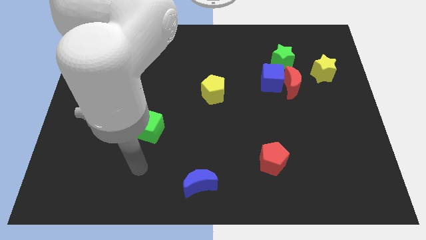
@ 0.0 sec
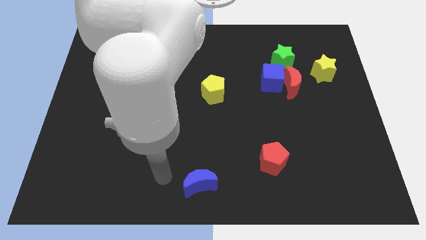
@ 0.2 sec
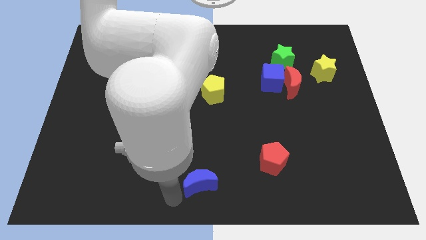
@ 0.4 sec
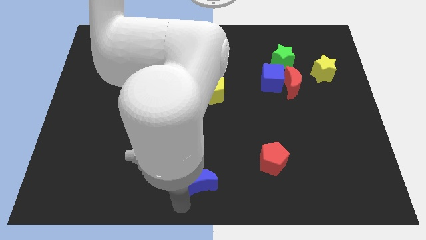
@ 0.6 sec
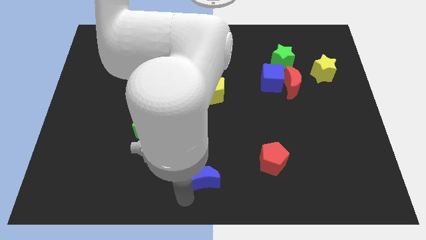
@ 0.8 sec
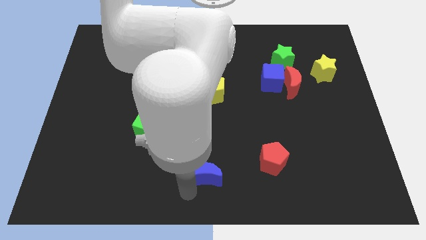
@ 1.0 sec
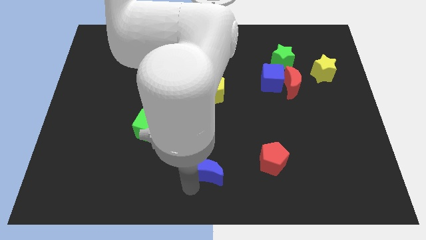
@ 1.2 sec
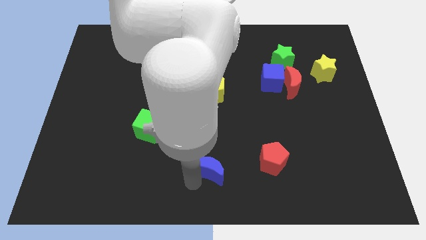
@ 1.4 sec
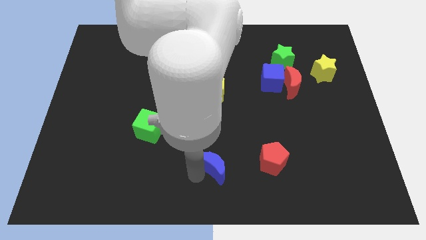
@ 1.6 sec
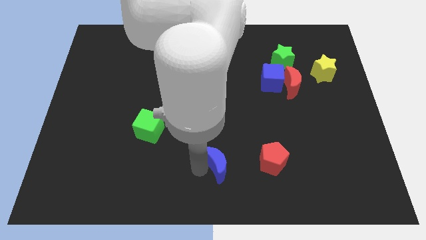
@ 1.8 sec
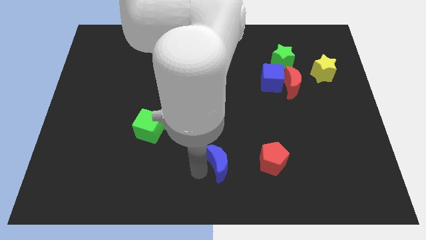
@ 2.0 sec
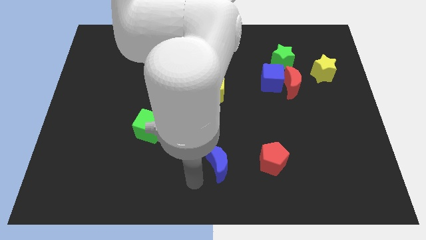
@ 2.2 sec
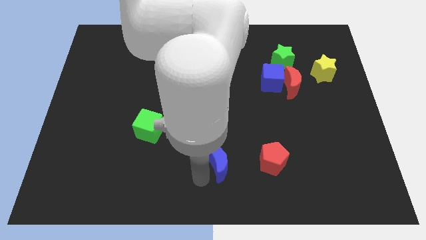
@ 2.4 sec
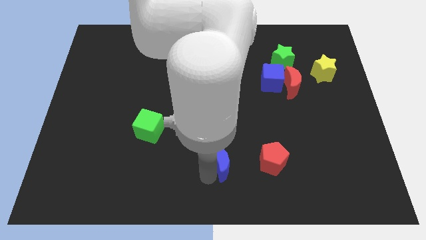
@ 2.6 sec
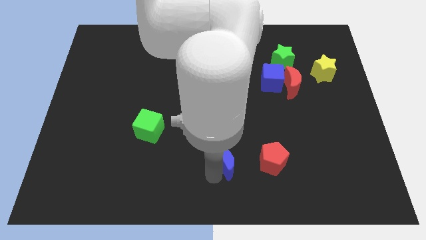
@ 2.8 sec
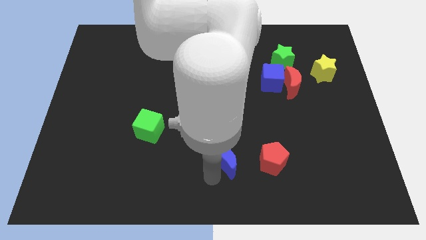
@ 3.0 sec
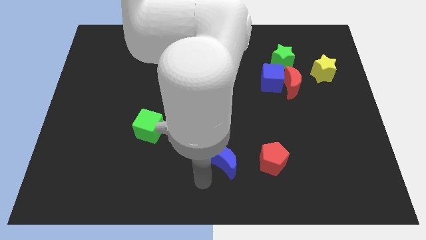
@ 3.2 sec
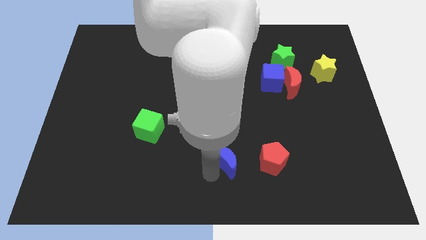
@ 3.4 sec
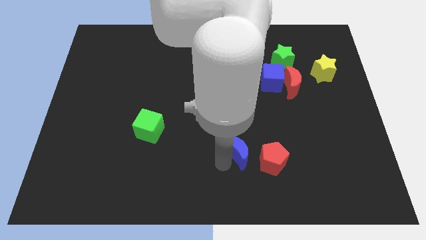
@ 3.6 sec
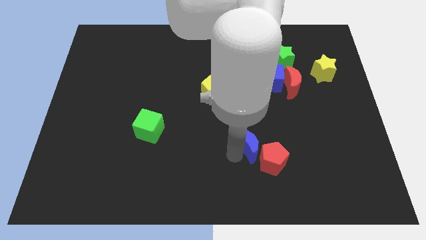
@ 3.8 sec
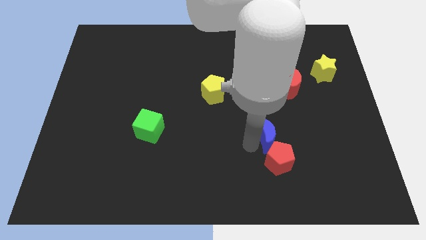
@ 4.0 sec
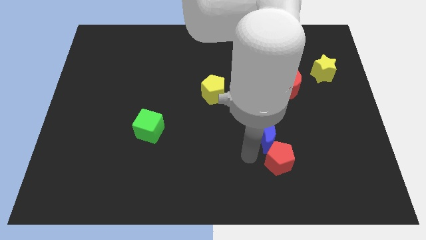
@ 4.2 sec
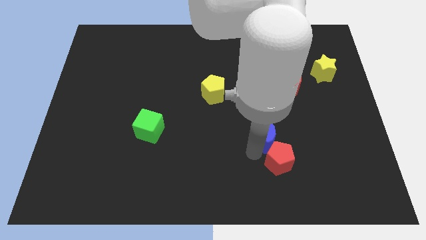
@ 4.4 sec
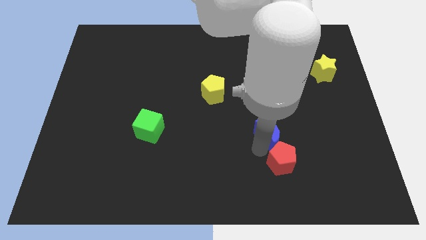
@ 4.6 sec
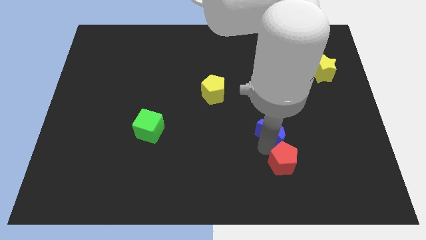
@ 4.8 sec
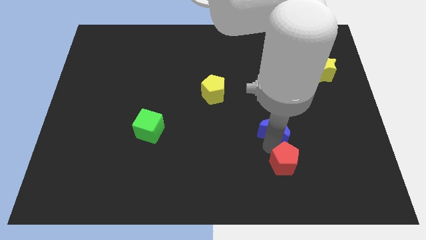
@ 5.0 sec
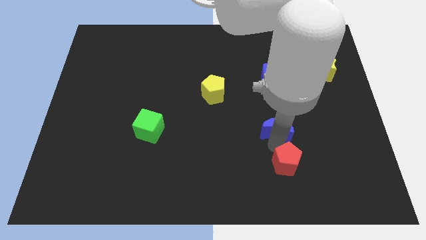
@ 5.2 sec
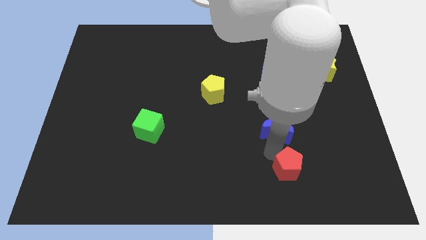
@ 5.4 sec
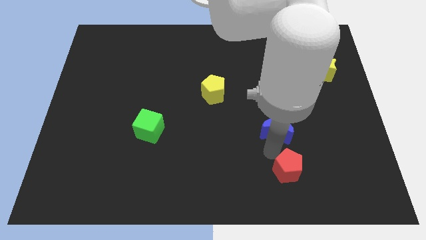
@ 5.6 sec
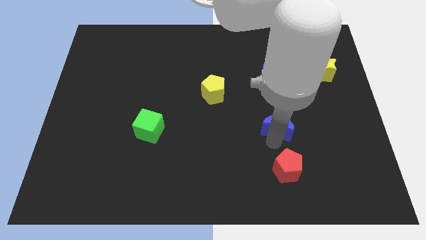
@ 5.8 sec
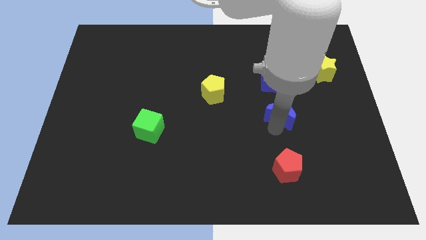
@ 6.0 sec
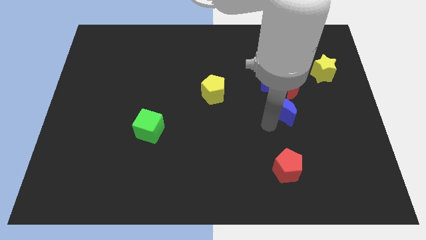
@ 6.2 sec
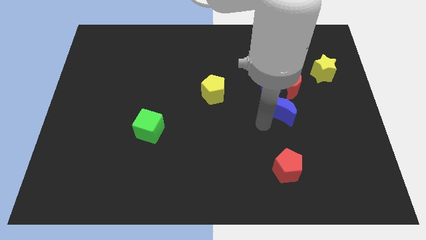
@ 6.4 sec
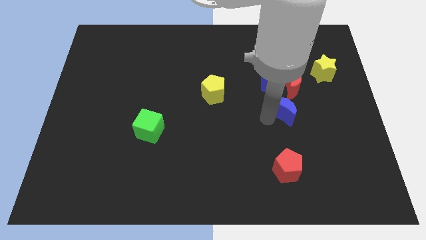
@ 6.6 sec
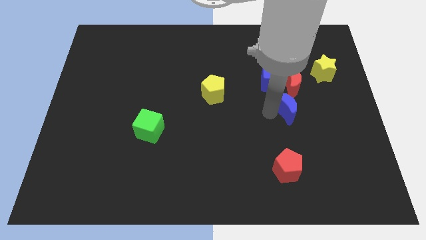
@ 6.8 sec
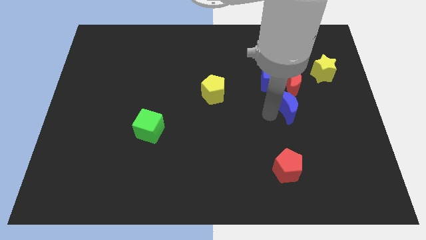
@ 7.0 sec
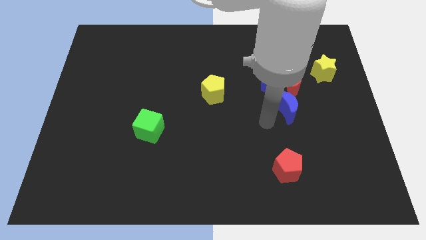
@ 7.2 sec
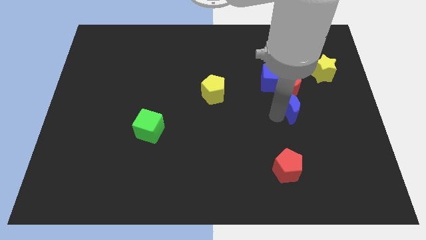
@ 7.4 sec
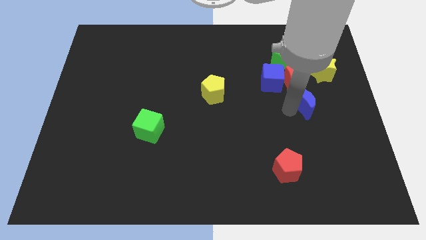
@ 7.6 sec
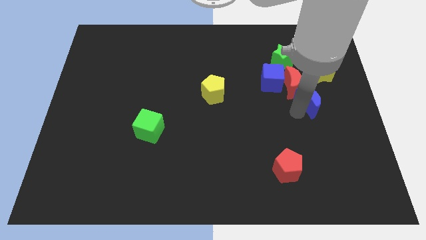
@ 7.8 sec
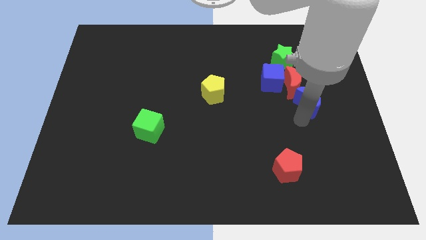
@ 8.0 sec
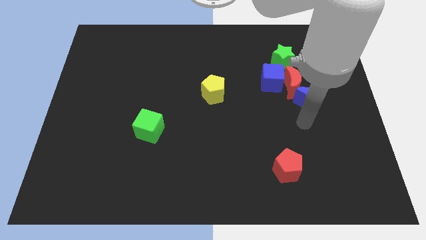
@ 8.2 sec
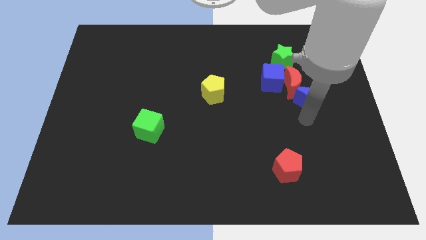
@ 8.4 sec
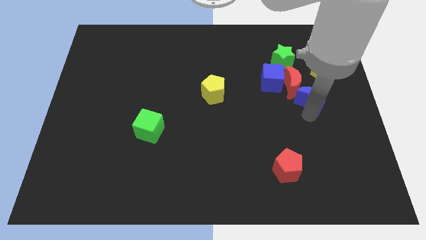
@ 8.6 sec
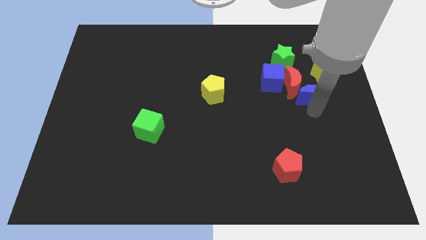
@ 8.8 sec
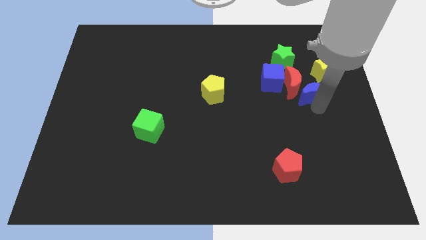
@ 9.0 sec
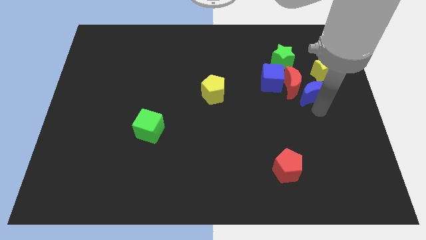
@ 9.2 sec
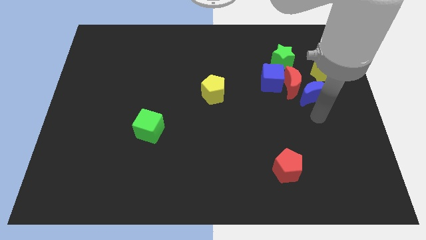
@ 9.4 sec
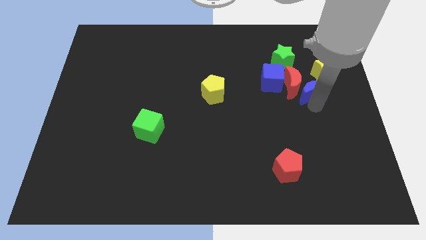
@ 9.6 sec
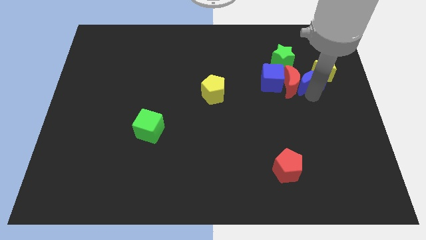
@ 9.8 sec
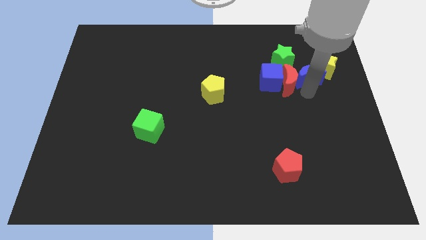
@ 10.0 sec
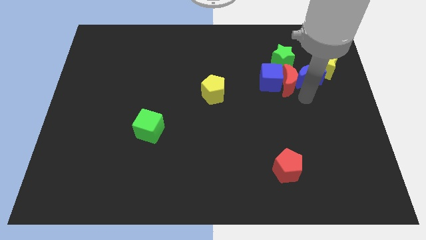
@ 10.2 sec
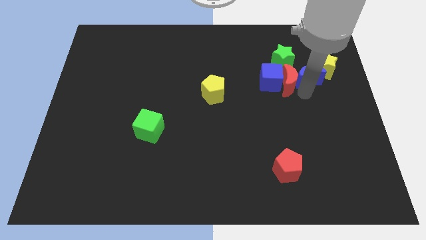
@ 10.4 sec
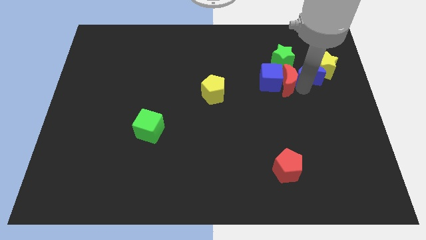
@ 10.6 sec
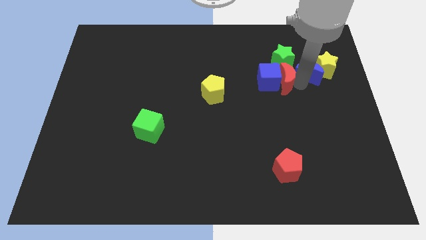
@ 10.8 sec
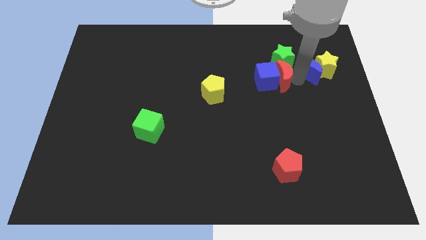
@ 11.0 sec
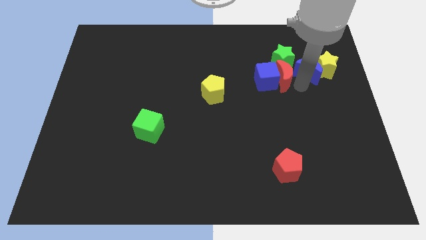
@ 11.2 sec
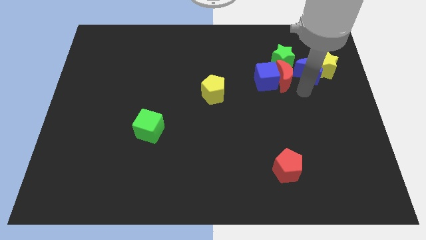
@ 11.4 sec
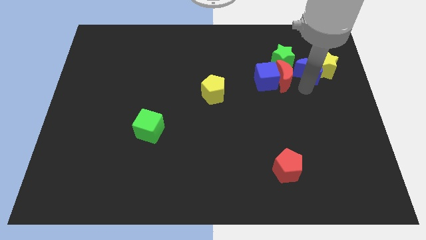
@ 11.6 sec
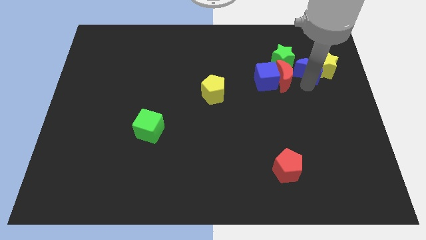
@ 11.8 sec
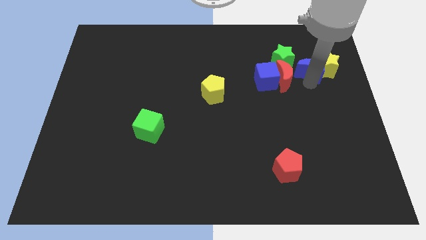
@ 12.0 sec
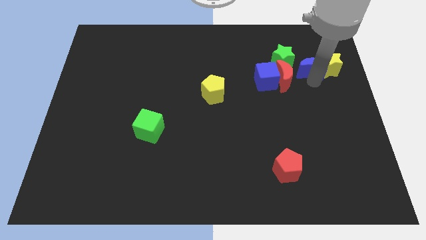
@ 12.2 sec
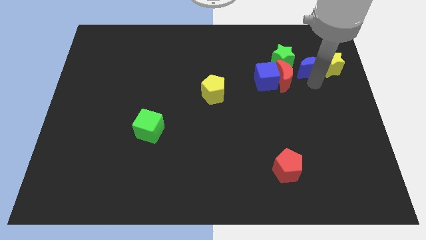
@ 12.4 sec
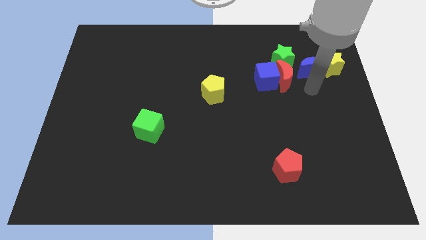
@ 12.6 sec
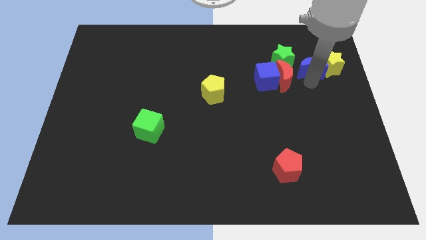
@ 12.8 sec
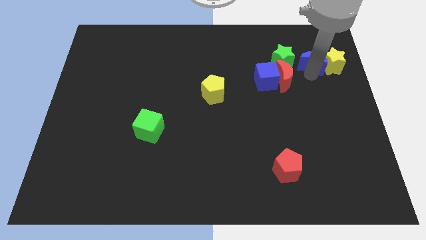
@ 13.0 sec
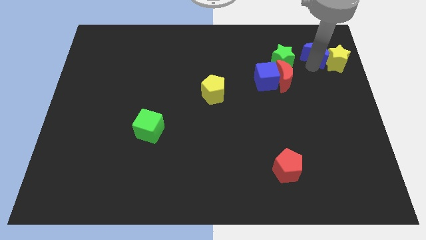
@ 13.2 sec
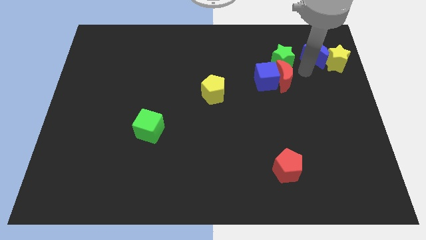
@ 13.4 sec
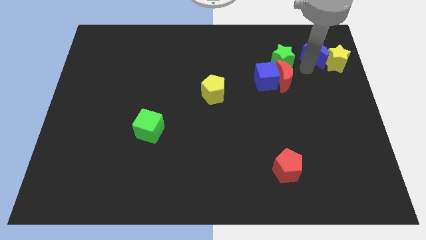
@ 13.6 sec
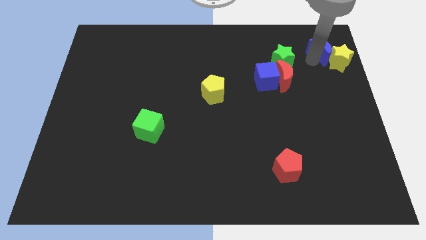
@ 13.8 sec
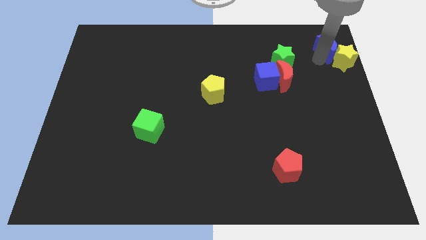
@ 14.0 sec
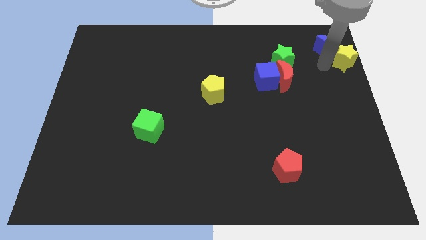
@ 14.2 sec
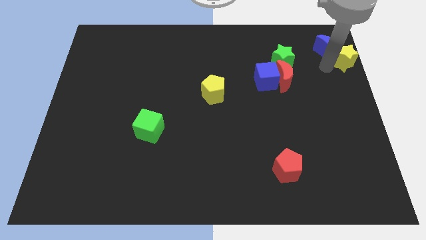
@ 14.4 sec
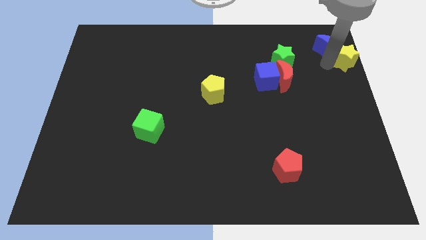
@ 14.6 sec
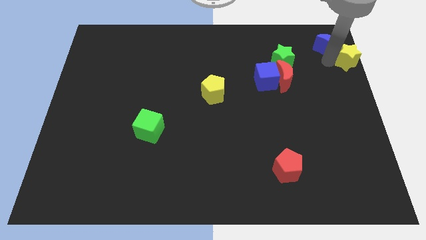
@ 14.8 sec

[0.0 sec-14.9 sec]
put the blue moon to the upper right corner
